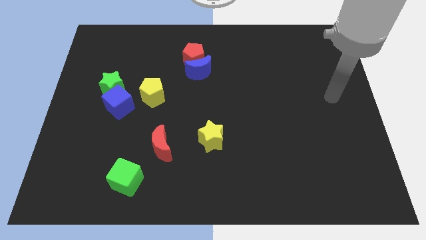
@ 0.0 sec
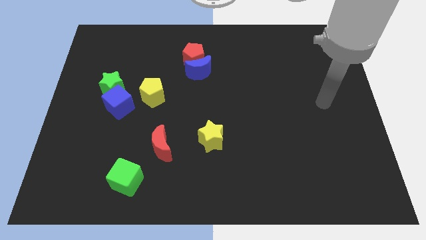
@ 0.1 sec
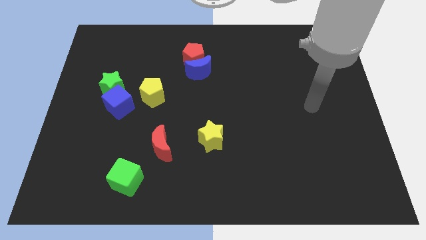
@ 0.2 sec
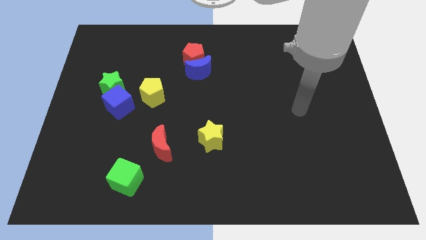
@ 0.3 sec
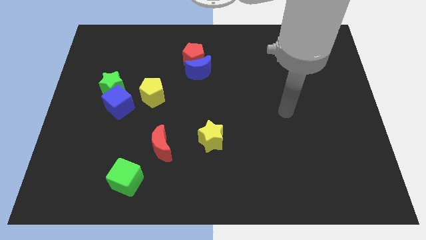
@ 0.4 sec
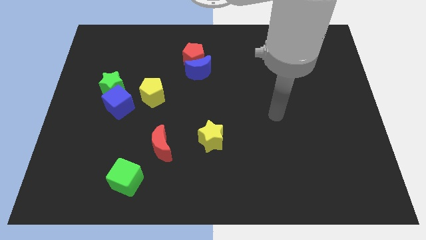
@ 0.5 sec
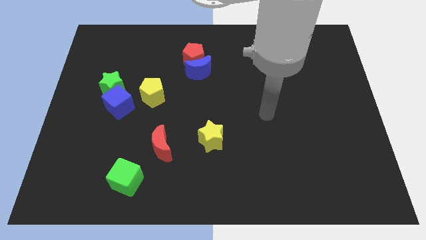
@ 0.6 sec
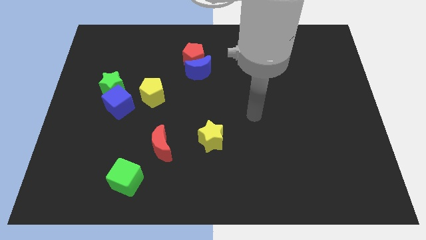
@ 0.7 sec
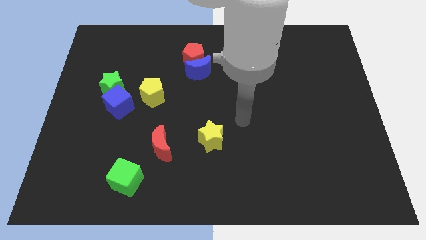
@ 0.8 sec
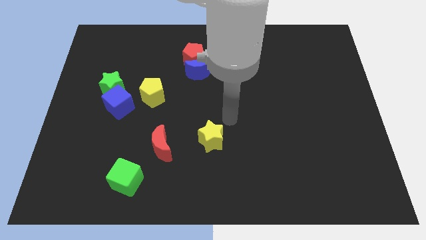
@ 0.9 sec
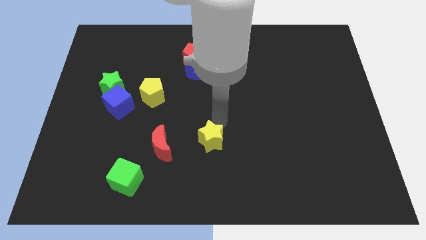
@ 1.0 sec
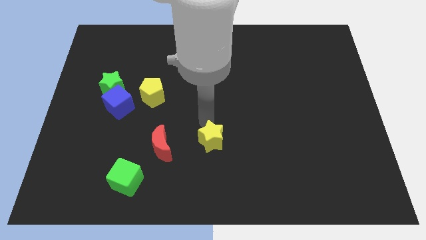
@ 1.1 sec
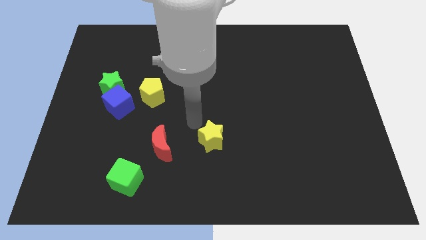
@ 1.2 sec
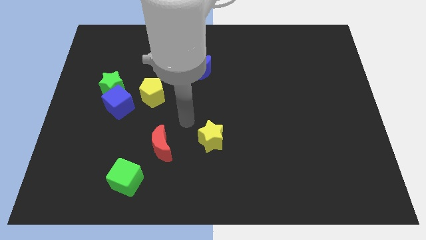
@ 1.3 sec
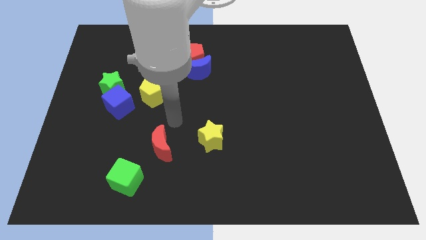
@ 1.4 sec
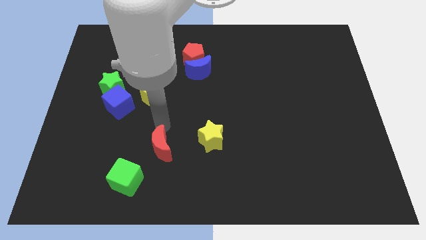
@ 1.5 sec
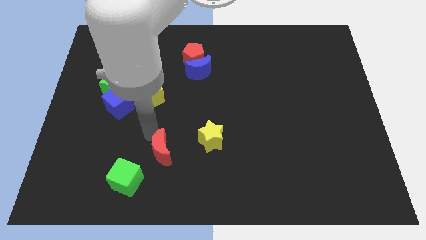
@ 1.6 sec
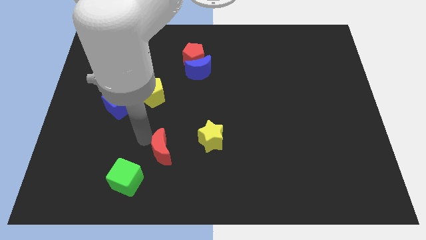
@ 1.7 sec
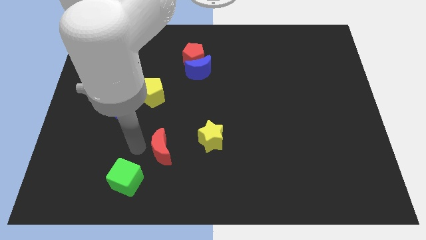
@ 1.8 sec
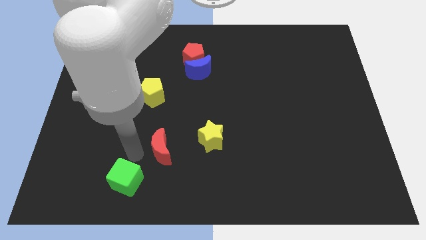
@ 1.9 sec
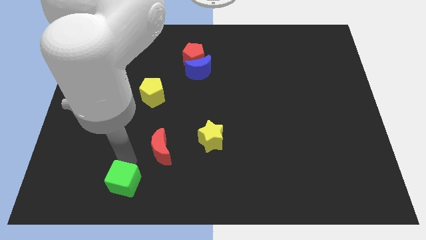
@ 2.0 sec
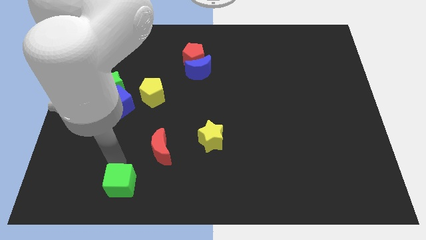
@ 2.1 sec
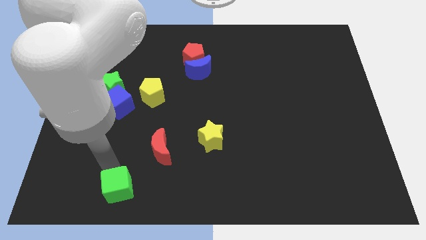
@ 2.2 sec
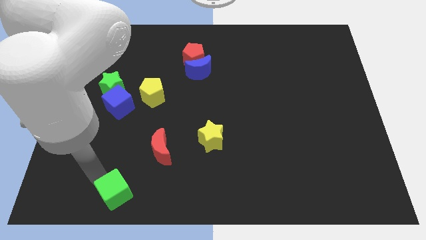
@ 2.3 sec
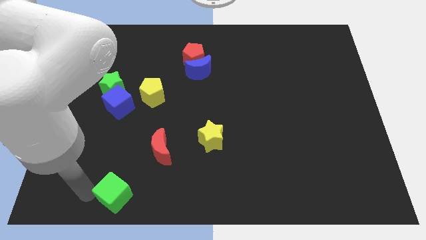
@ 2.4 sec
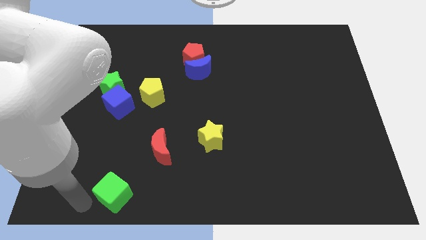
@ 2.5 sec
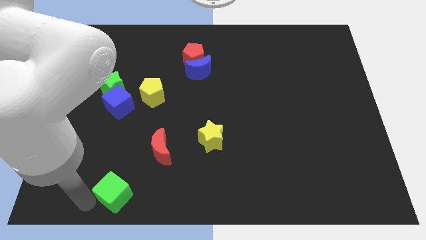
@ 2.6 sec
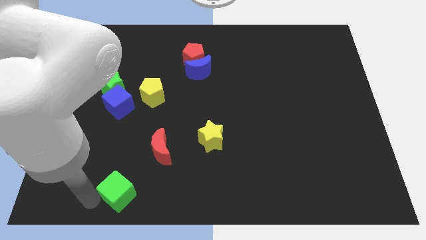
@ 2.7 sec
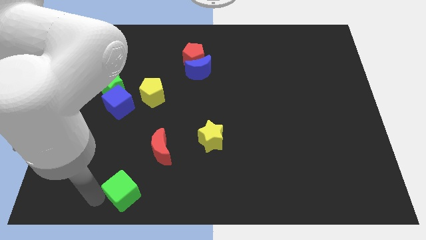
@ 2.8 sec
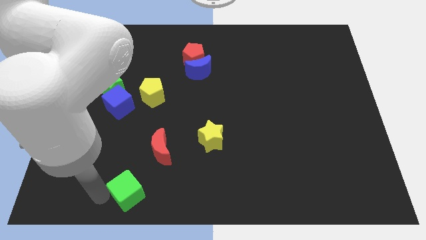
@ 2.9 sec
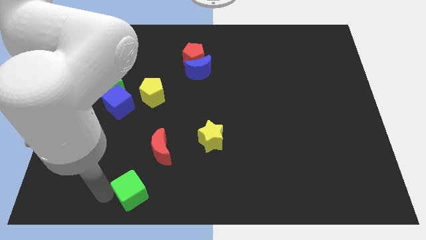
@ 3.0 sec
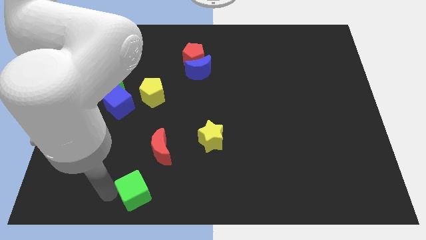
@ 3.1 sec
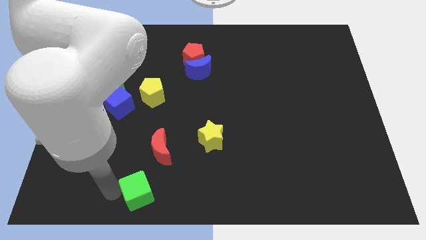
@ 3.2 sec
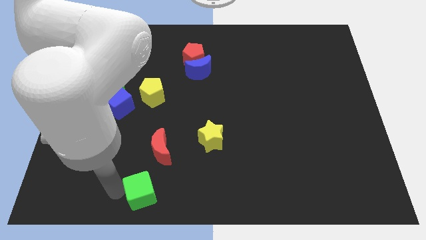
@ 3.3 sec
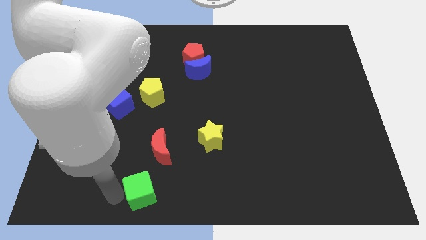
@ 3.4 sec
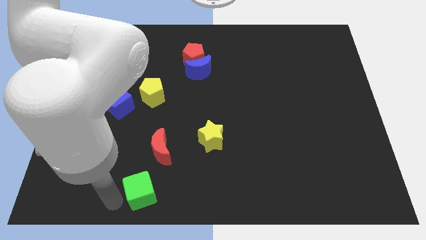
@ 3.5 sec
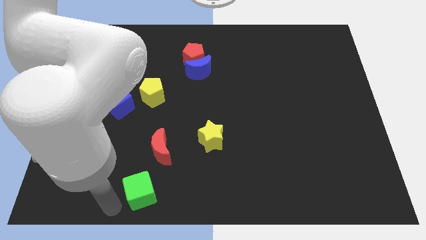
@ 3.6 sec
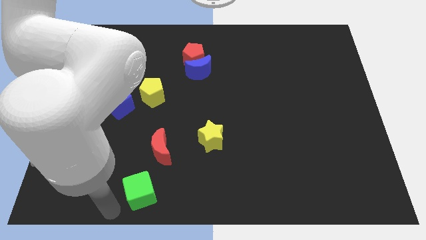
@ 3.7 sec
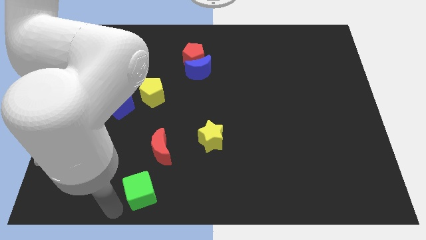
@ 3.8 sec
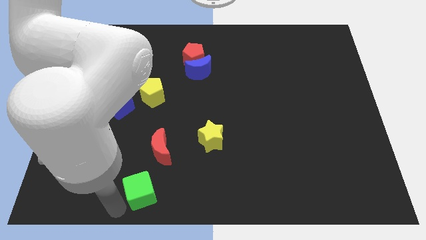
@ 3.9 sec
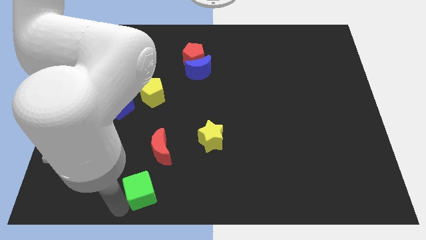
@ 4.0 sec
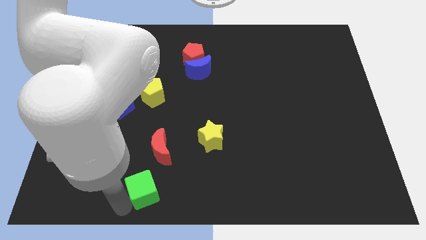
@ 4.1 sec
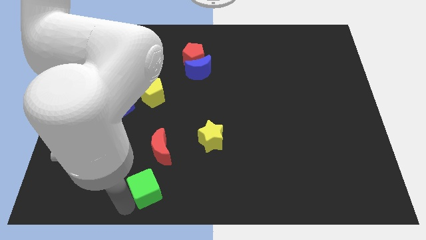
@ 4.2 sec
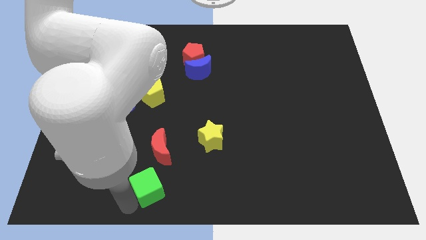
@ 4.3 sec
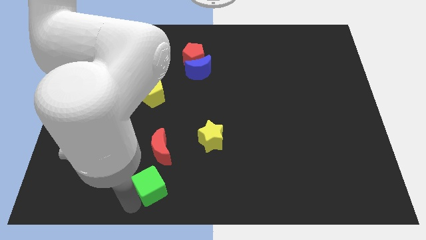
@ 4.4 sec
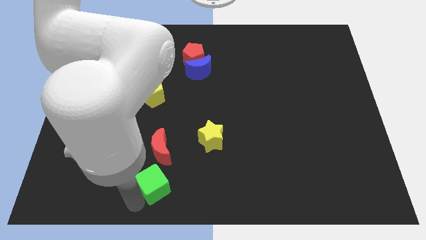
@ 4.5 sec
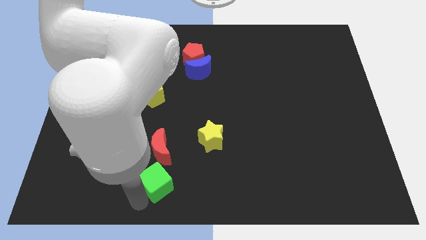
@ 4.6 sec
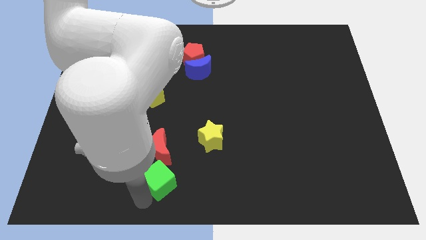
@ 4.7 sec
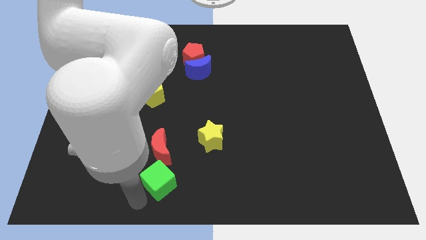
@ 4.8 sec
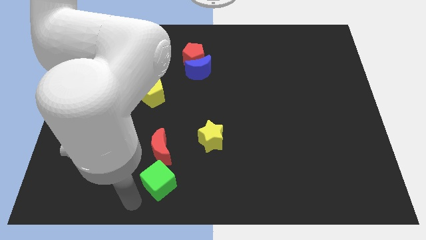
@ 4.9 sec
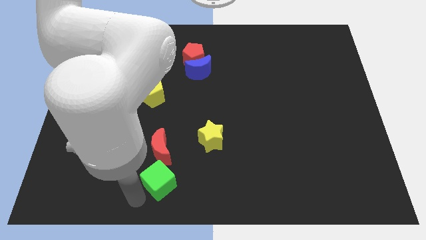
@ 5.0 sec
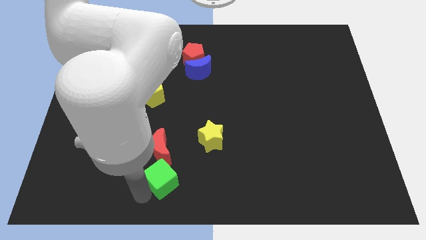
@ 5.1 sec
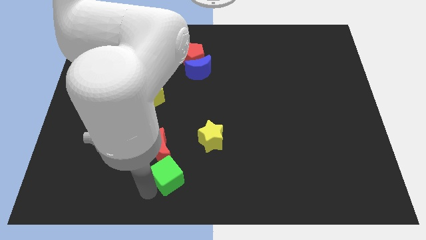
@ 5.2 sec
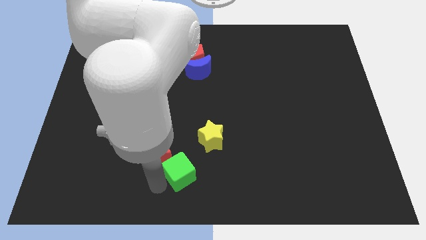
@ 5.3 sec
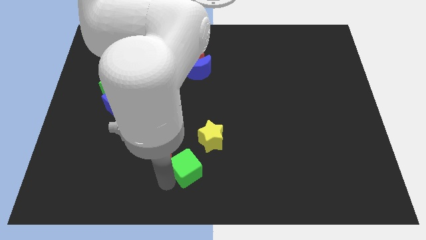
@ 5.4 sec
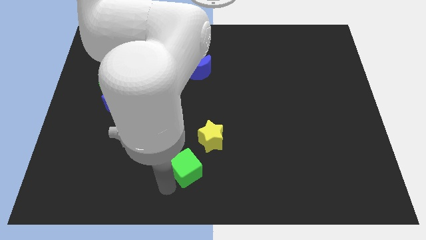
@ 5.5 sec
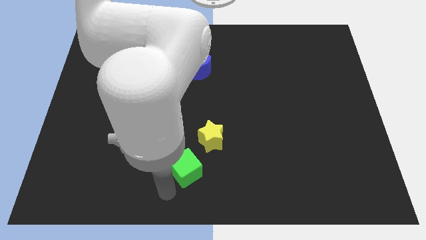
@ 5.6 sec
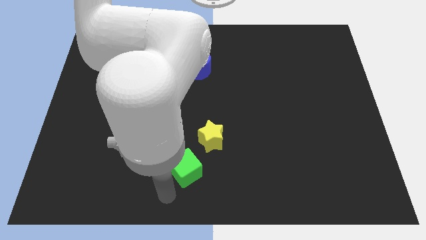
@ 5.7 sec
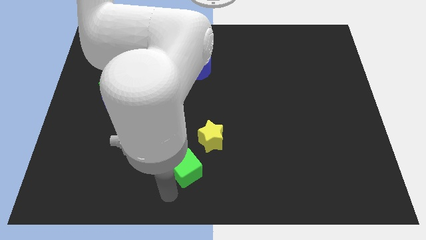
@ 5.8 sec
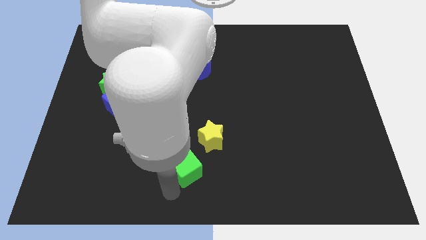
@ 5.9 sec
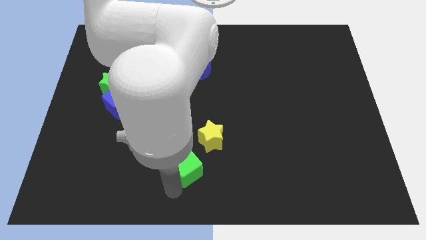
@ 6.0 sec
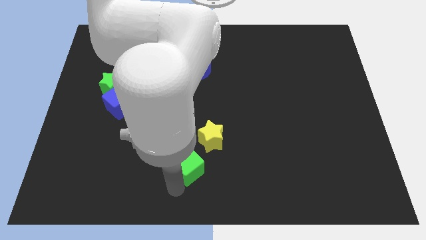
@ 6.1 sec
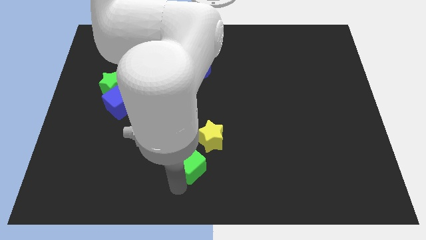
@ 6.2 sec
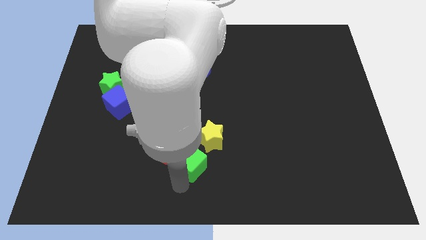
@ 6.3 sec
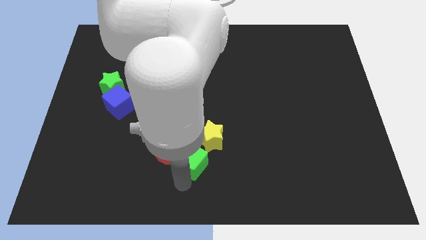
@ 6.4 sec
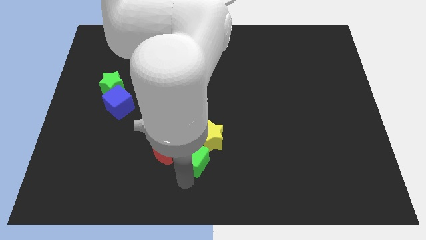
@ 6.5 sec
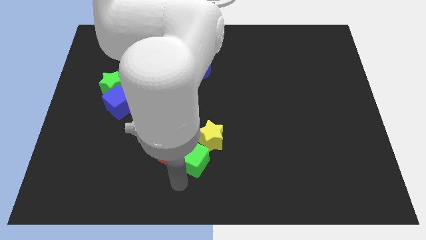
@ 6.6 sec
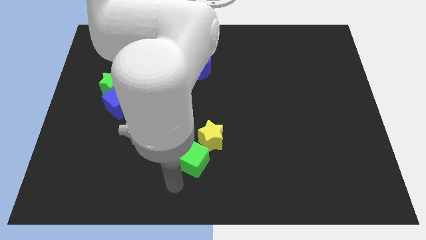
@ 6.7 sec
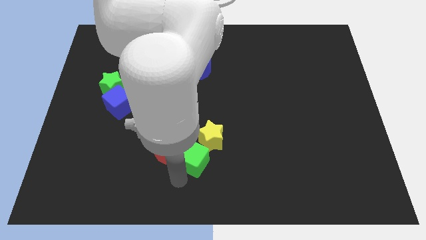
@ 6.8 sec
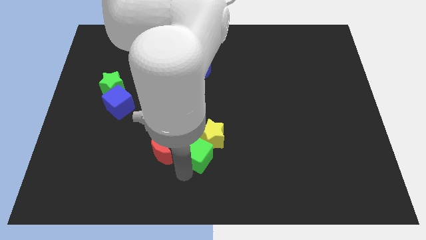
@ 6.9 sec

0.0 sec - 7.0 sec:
put the green cube close to the yellow star
